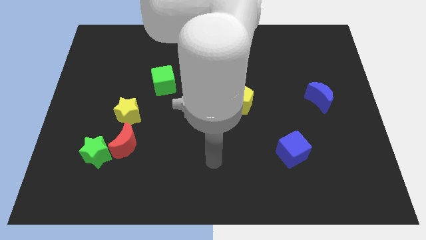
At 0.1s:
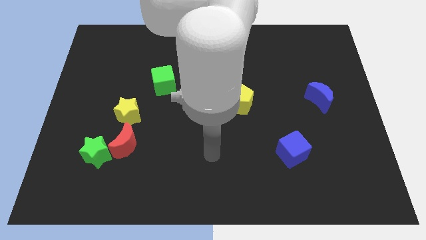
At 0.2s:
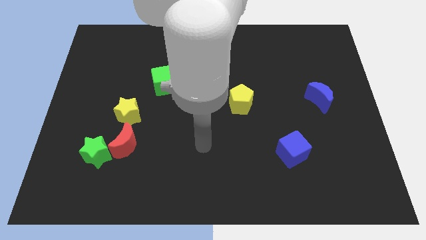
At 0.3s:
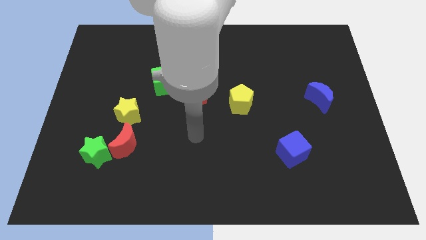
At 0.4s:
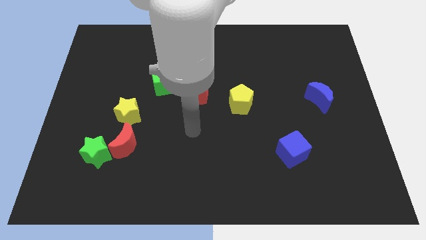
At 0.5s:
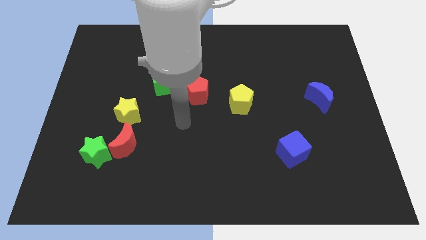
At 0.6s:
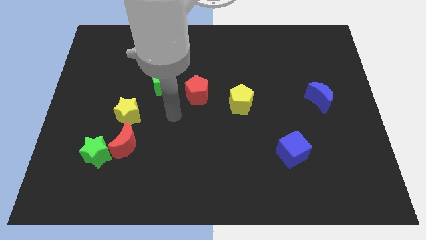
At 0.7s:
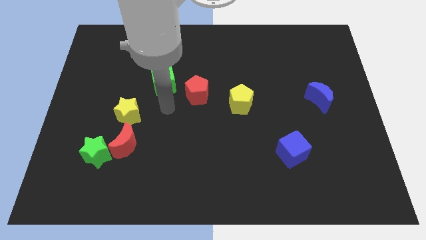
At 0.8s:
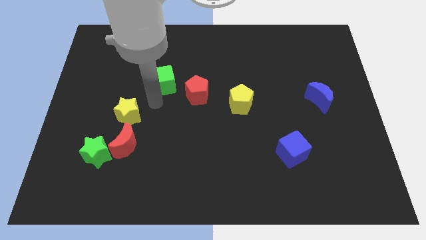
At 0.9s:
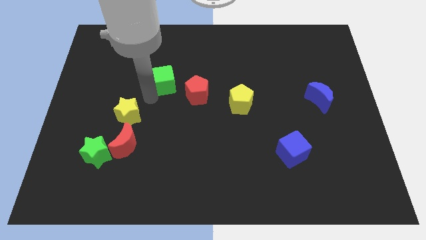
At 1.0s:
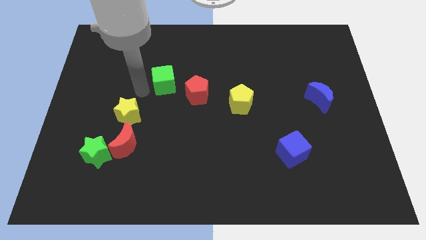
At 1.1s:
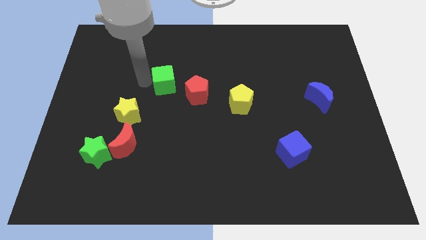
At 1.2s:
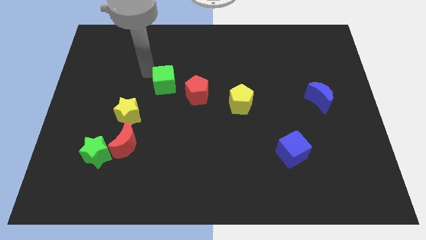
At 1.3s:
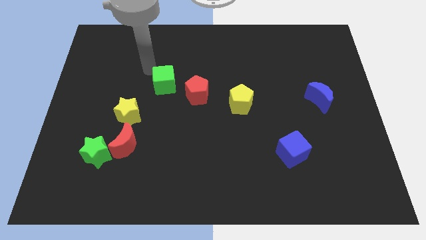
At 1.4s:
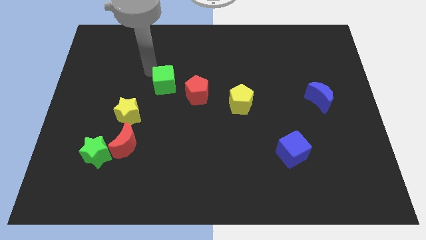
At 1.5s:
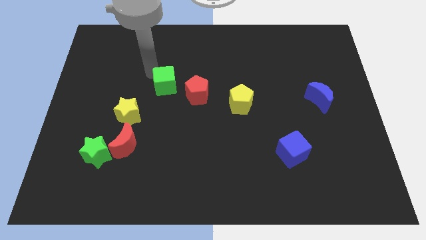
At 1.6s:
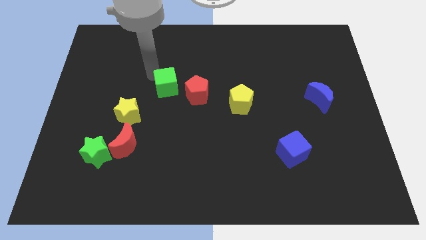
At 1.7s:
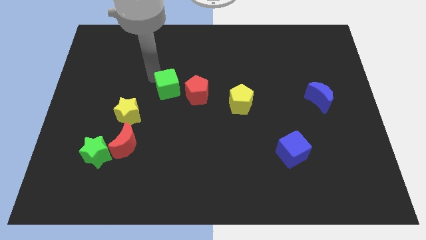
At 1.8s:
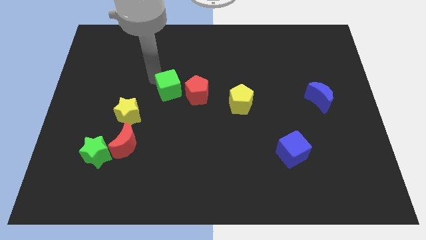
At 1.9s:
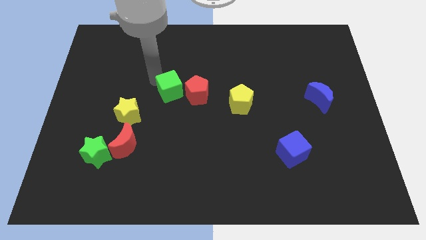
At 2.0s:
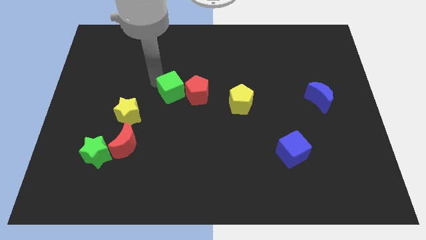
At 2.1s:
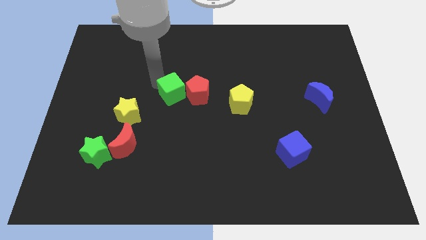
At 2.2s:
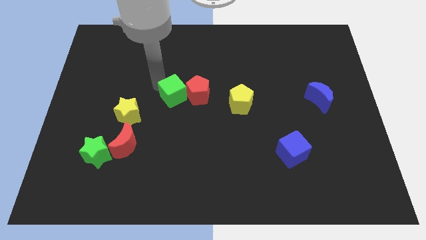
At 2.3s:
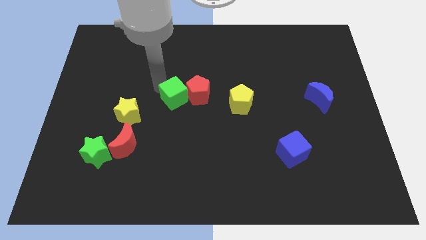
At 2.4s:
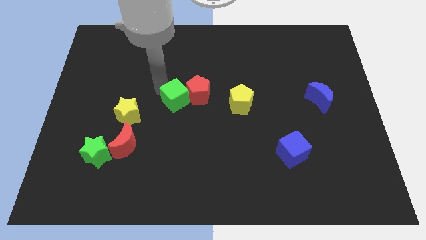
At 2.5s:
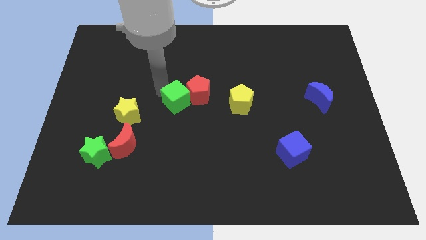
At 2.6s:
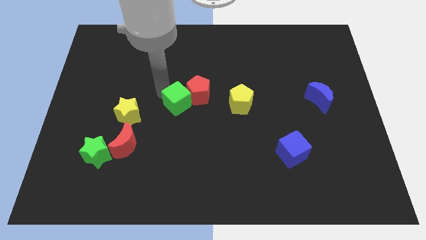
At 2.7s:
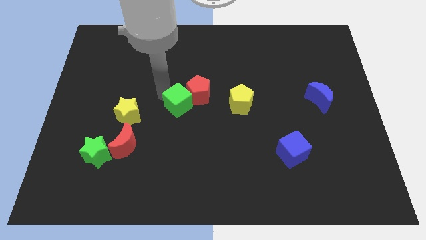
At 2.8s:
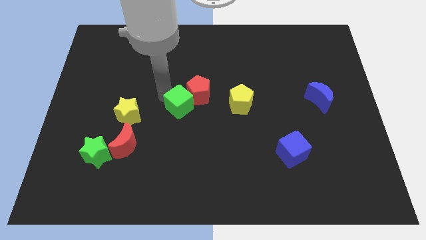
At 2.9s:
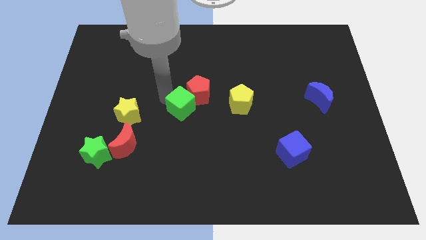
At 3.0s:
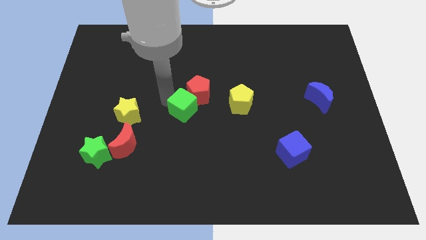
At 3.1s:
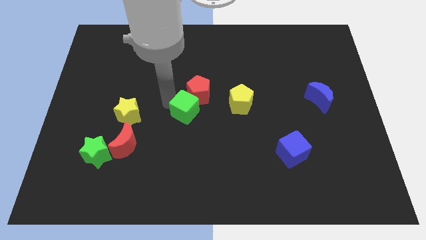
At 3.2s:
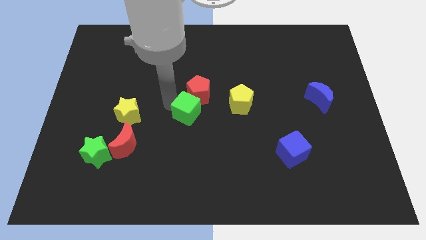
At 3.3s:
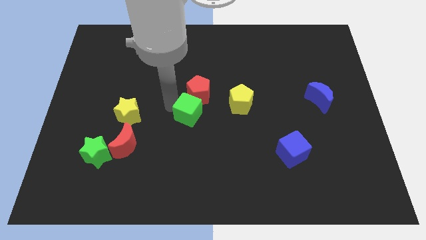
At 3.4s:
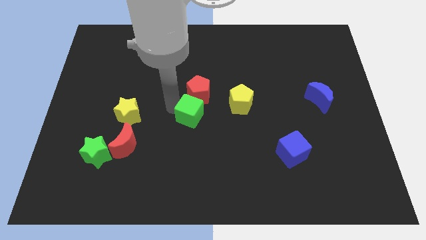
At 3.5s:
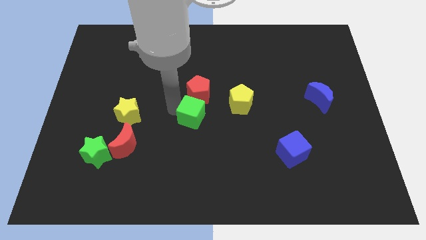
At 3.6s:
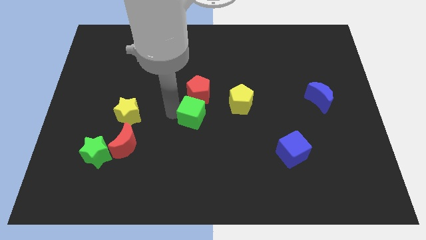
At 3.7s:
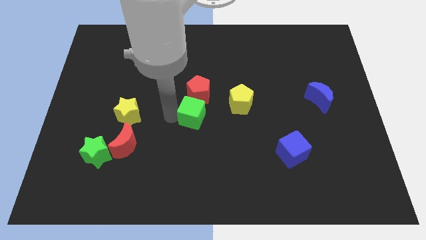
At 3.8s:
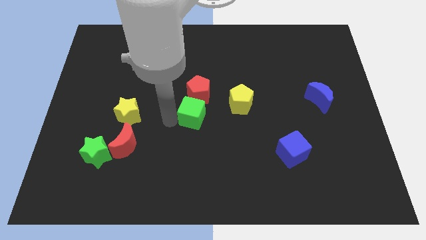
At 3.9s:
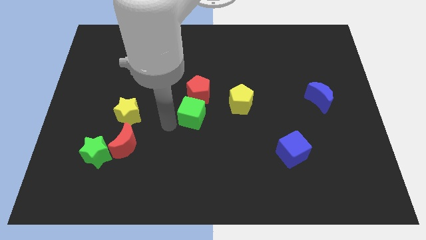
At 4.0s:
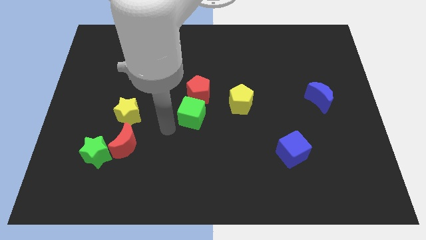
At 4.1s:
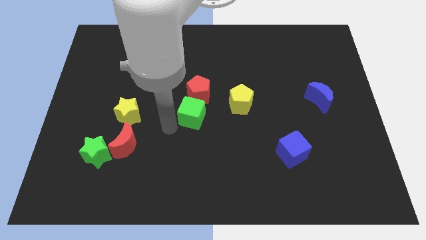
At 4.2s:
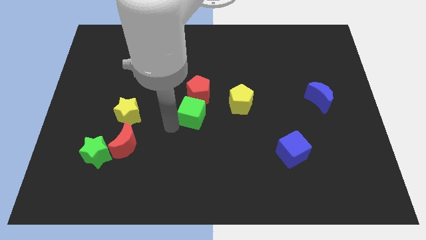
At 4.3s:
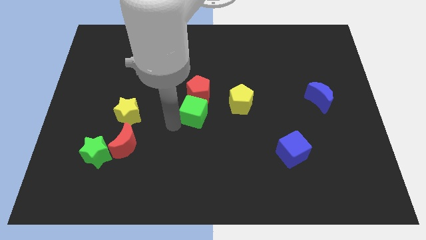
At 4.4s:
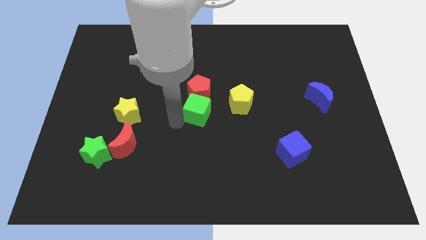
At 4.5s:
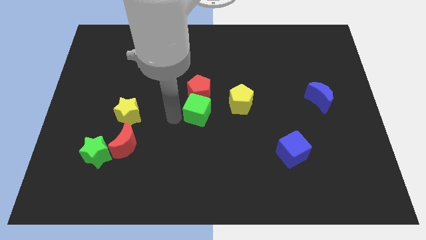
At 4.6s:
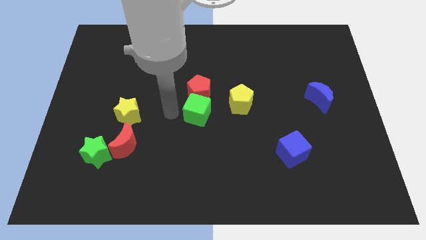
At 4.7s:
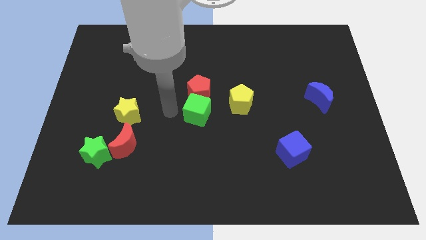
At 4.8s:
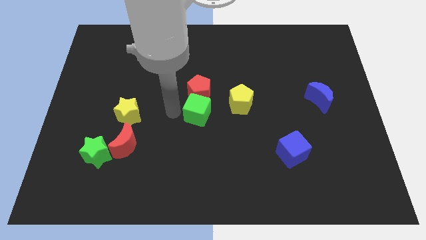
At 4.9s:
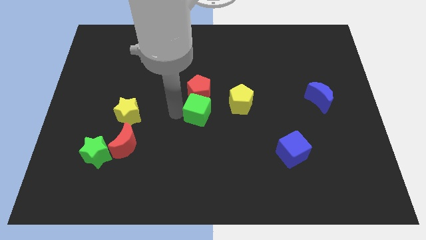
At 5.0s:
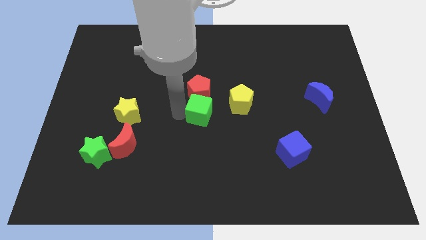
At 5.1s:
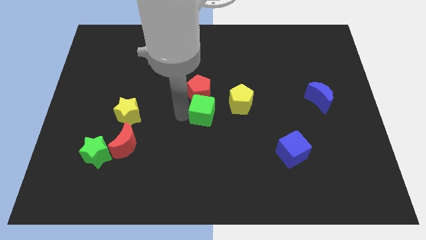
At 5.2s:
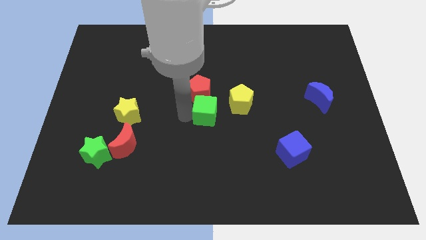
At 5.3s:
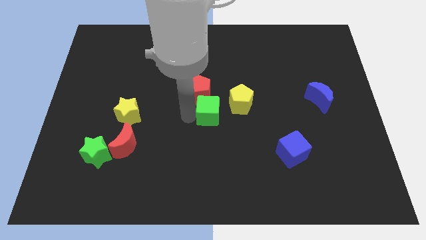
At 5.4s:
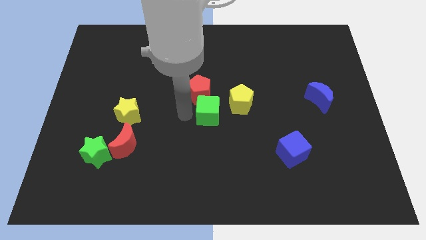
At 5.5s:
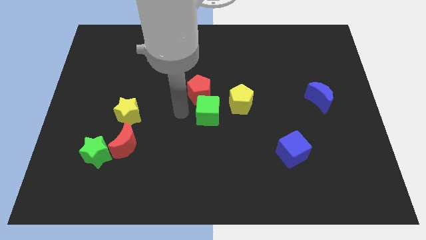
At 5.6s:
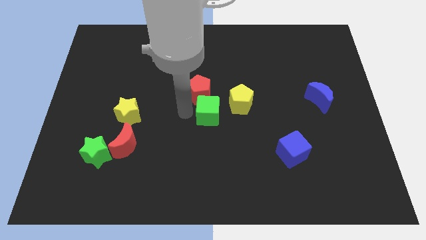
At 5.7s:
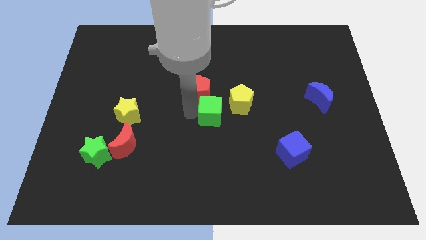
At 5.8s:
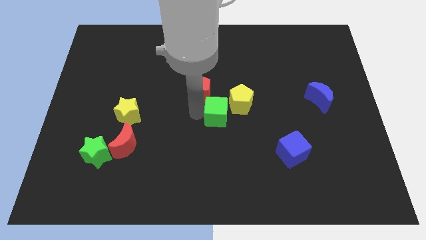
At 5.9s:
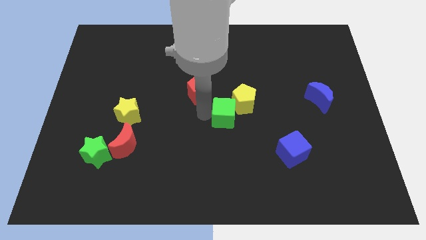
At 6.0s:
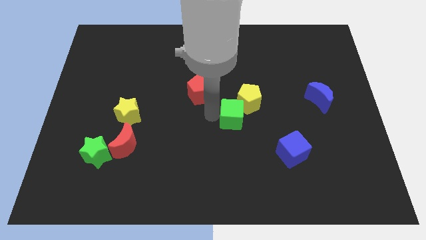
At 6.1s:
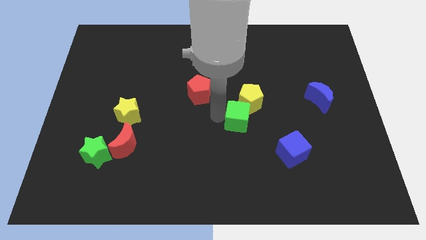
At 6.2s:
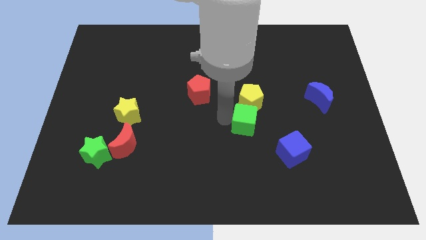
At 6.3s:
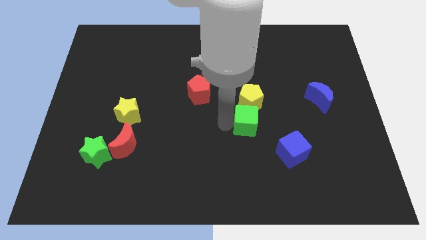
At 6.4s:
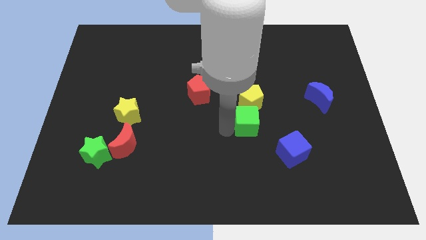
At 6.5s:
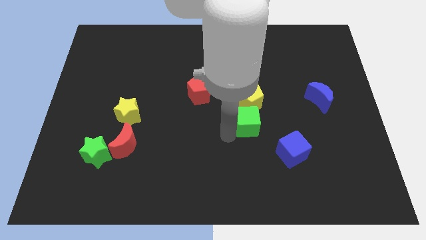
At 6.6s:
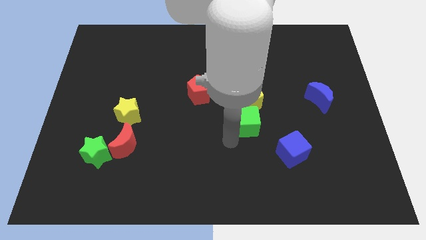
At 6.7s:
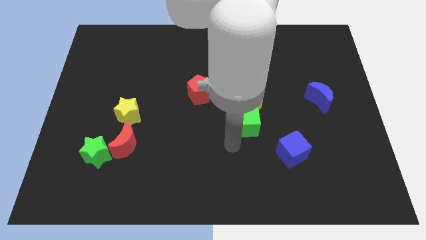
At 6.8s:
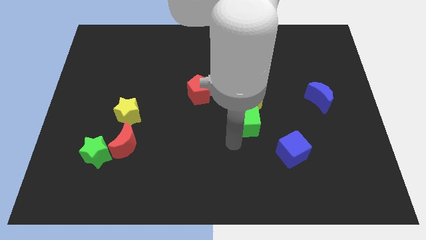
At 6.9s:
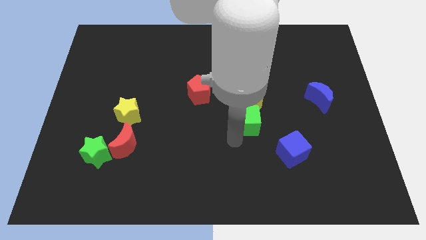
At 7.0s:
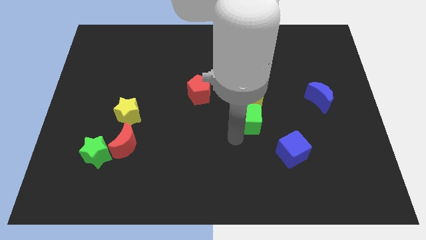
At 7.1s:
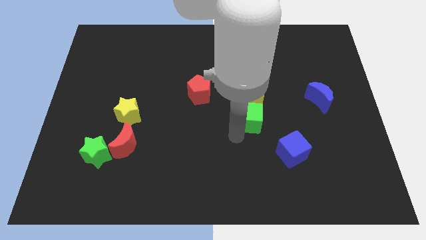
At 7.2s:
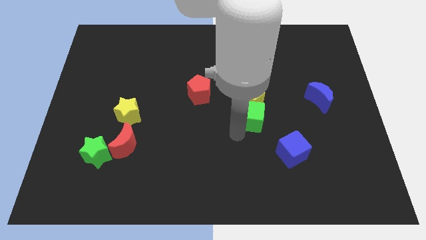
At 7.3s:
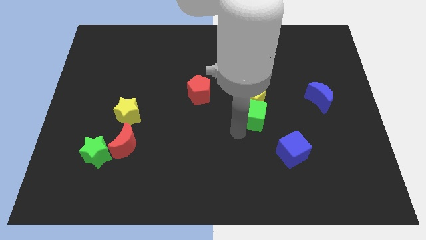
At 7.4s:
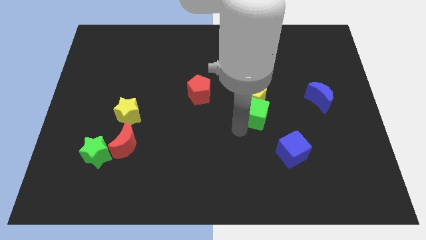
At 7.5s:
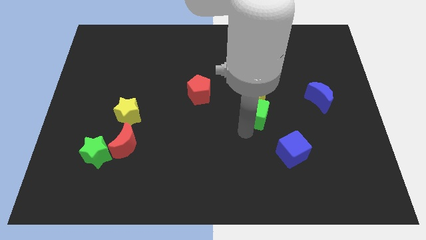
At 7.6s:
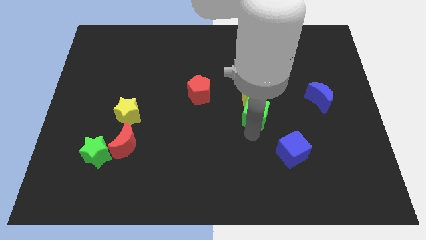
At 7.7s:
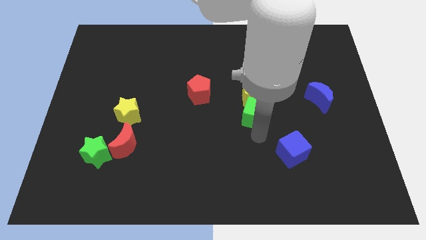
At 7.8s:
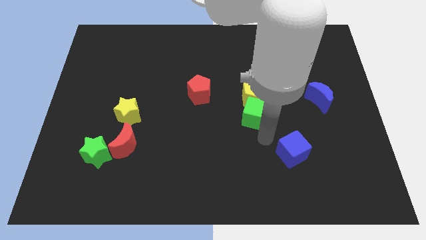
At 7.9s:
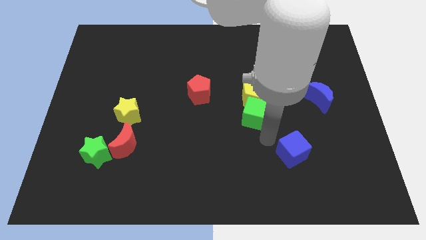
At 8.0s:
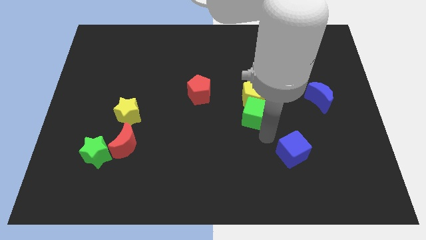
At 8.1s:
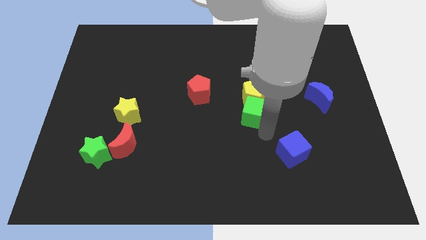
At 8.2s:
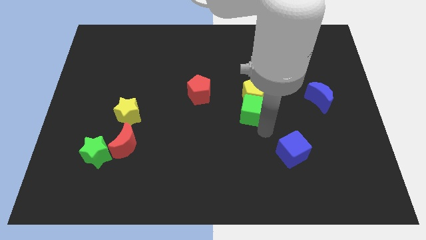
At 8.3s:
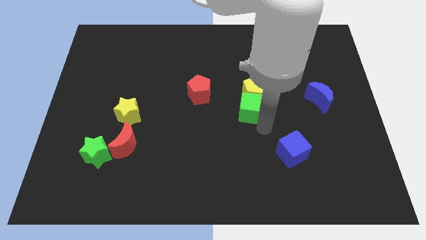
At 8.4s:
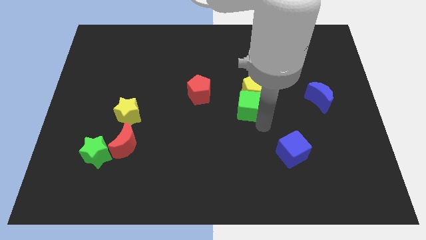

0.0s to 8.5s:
slide the green cube right of the red pentagon
